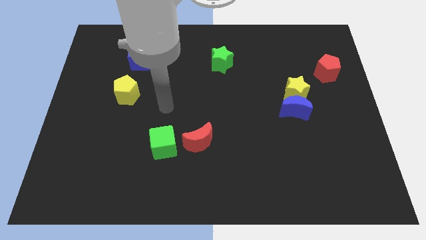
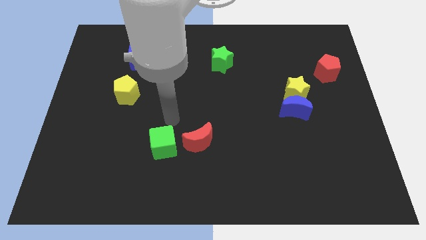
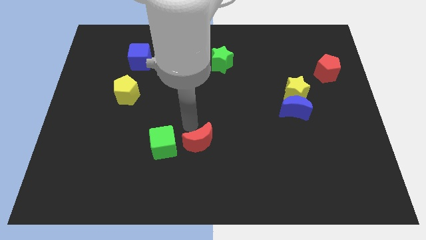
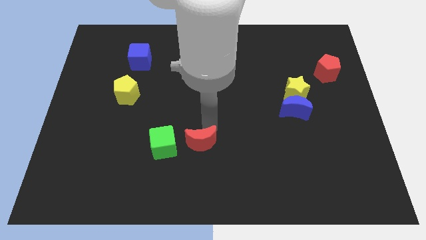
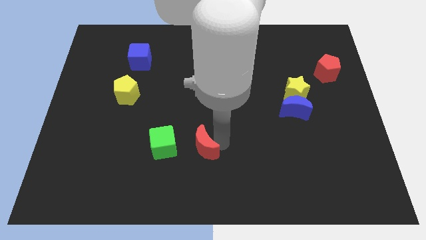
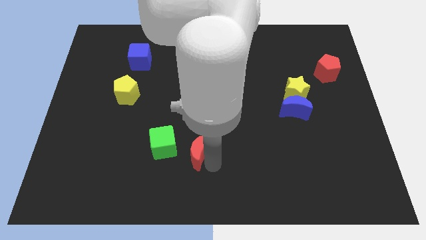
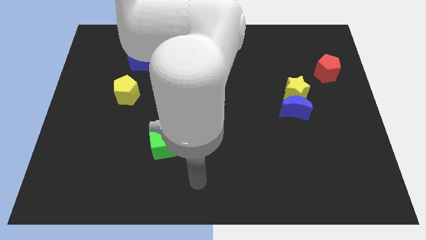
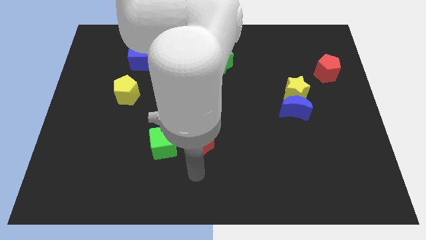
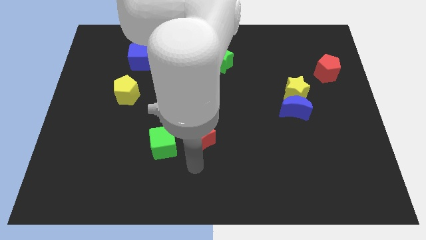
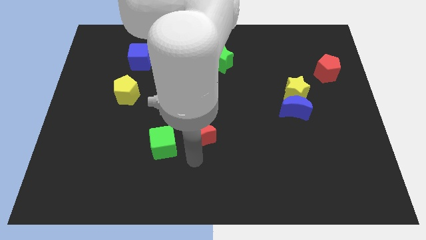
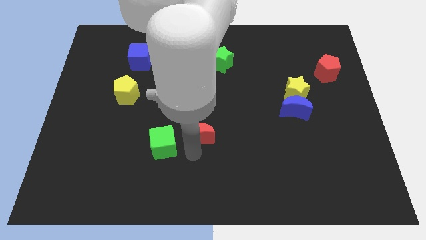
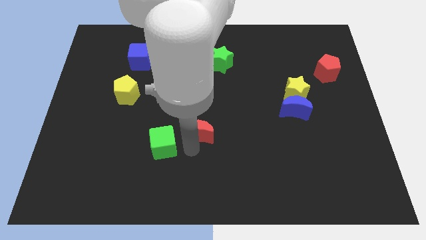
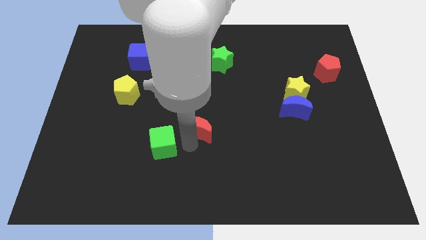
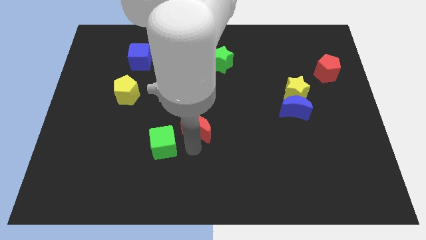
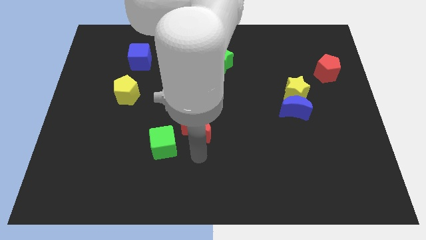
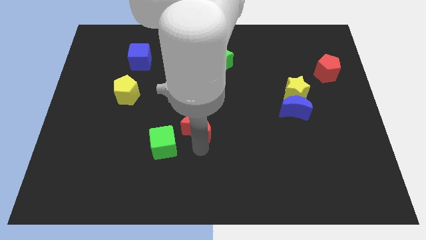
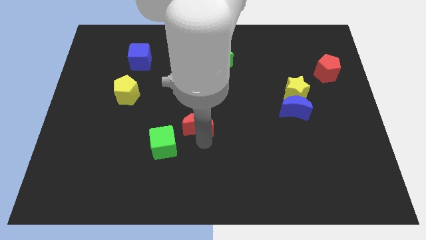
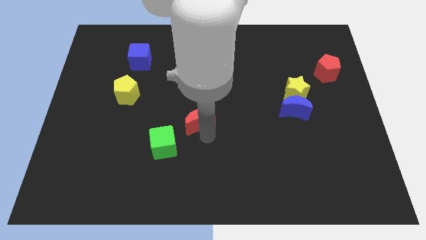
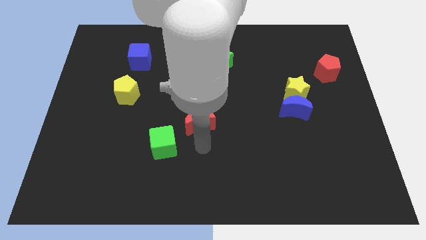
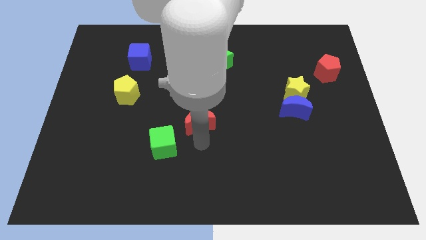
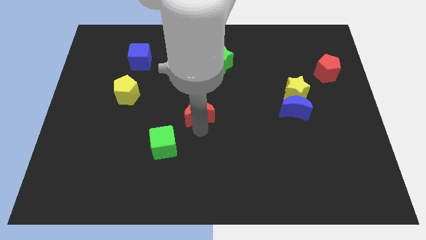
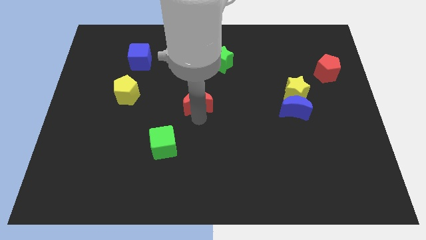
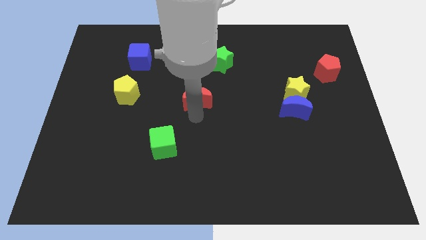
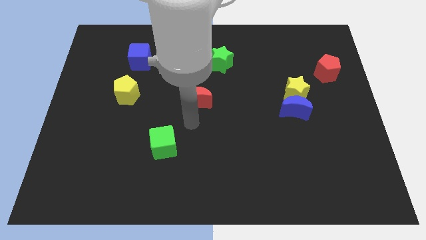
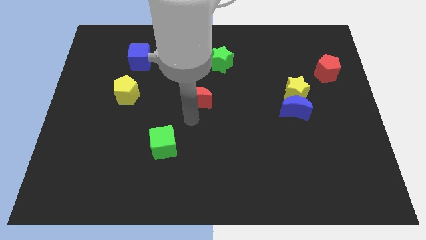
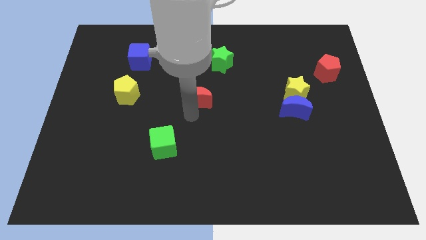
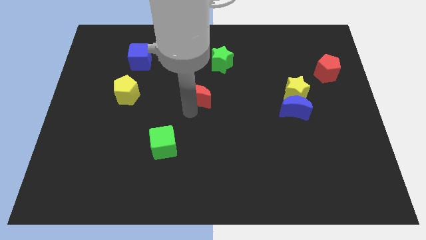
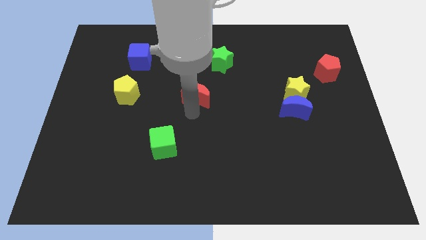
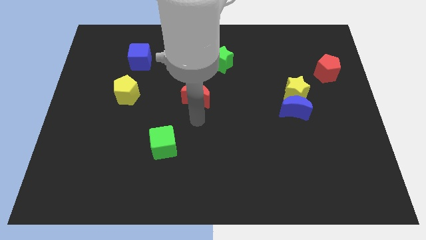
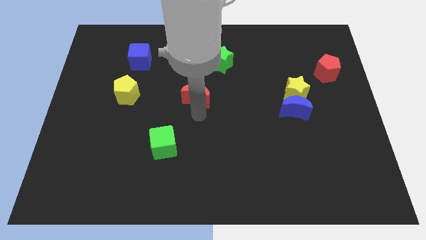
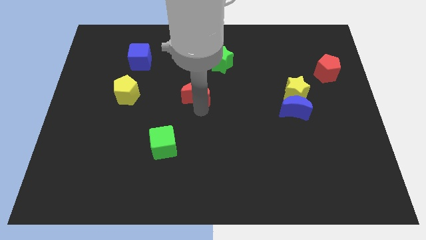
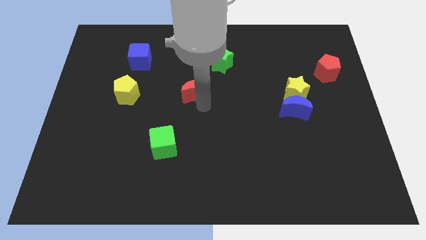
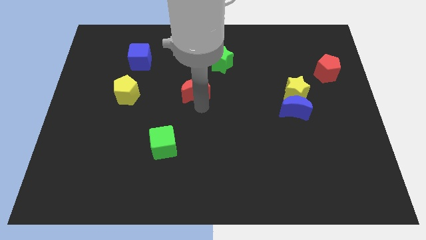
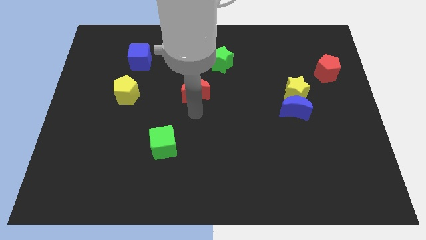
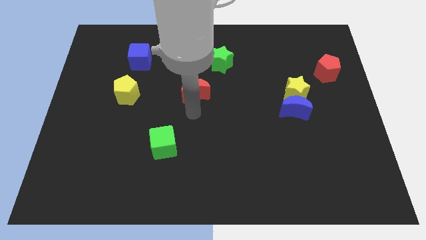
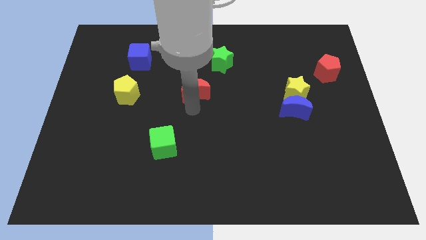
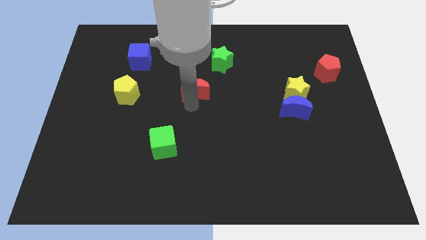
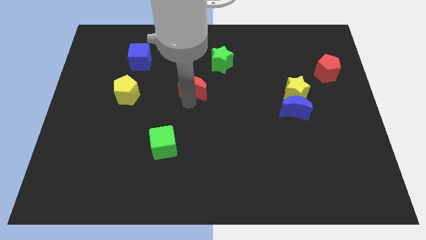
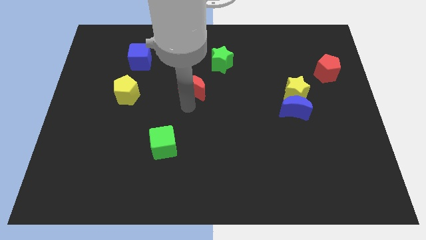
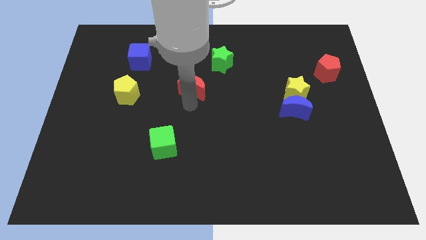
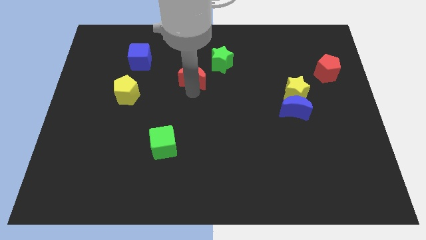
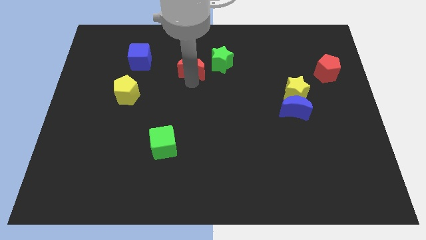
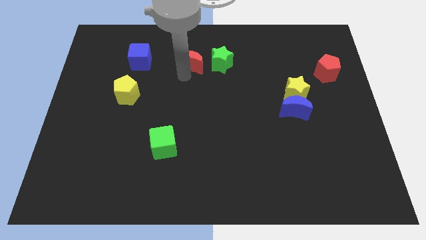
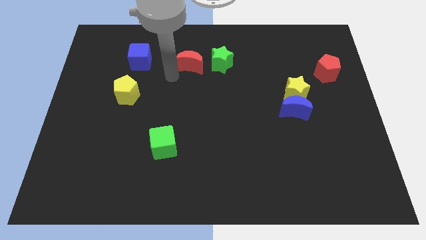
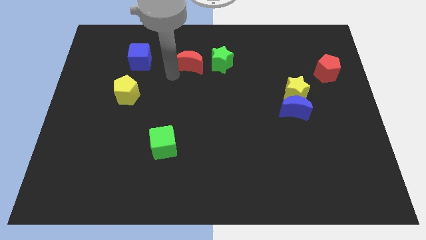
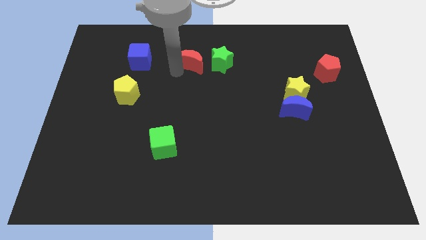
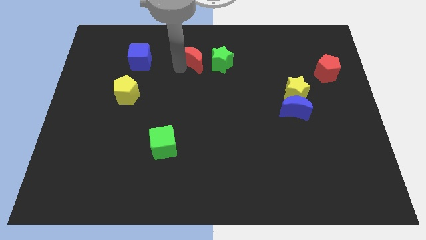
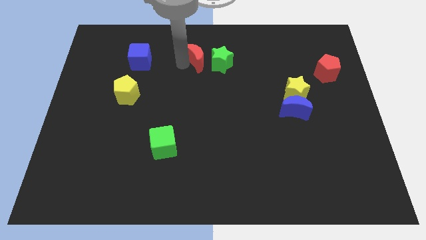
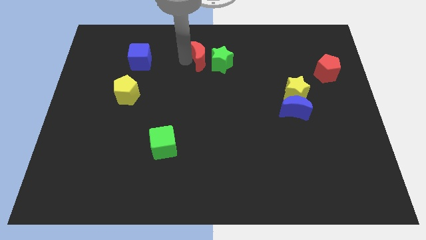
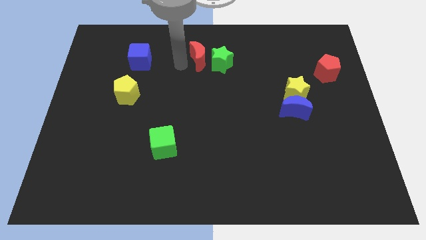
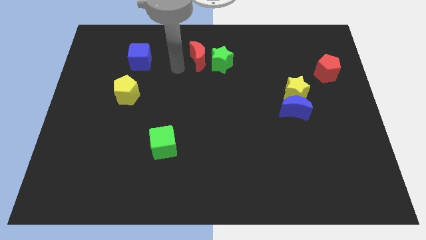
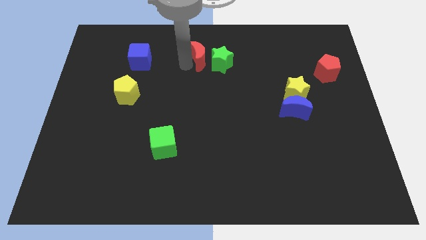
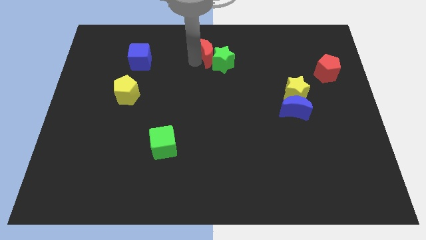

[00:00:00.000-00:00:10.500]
move the red moon to the towards your base

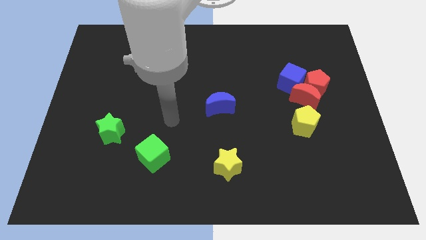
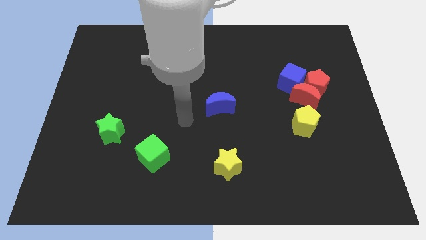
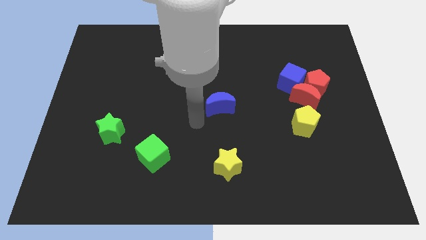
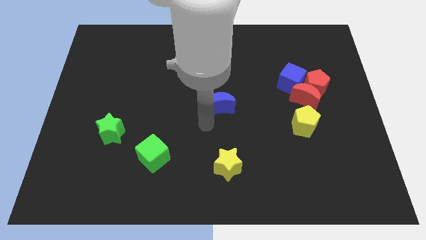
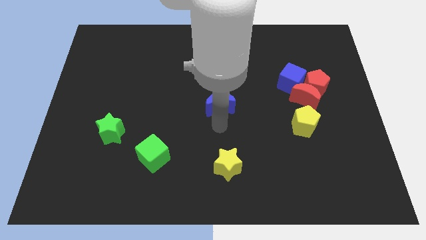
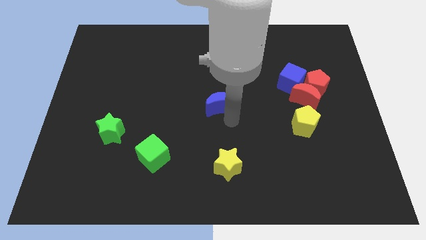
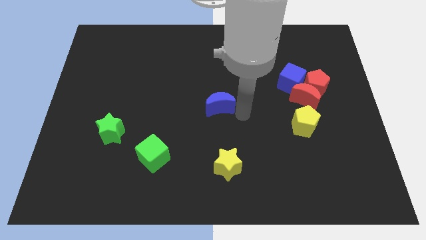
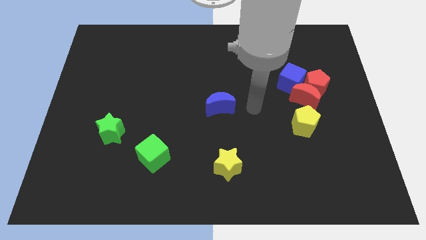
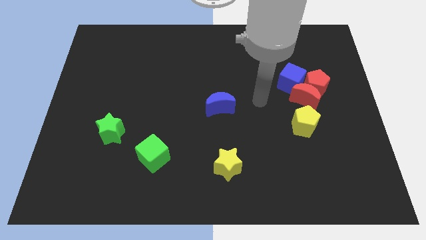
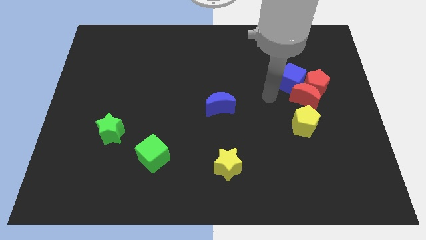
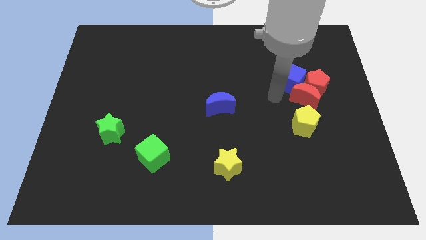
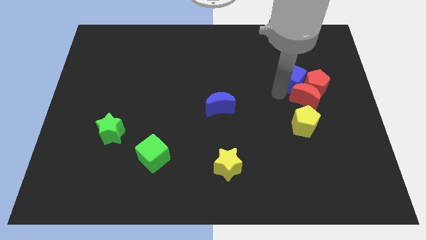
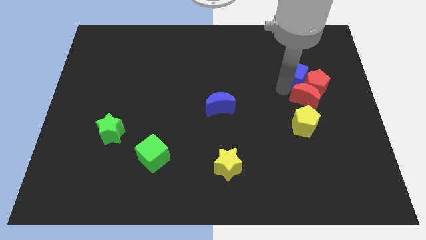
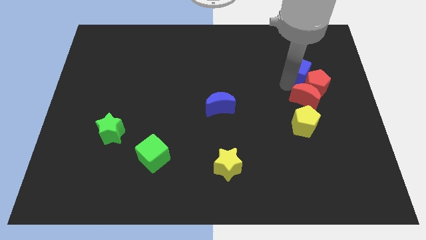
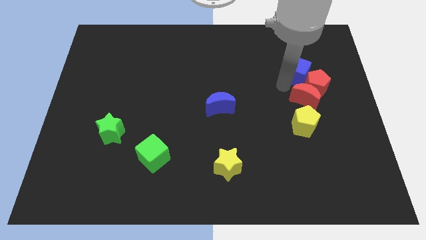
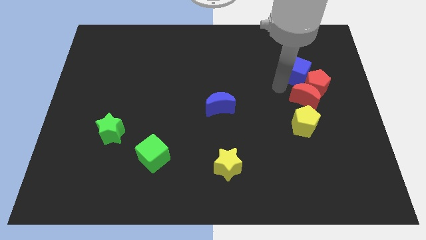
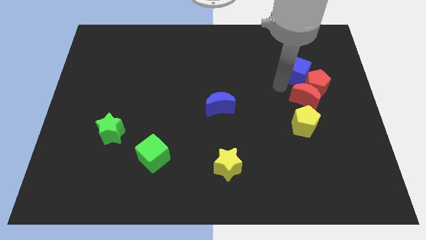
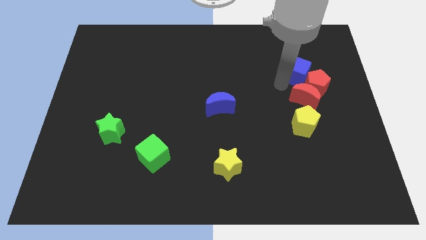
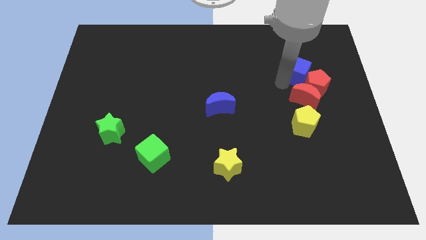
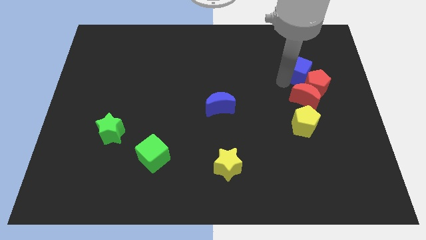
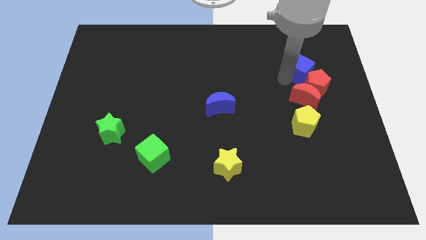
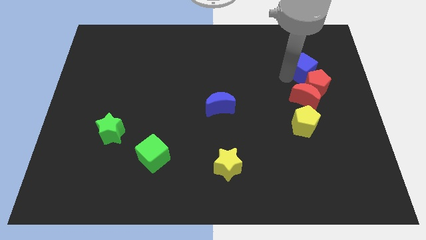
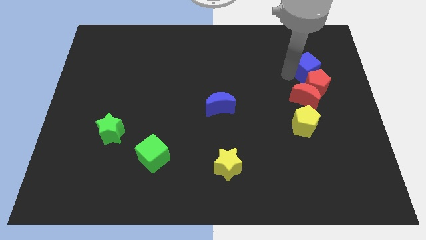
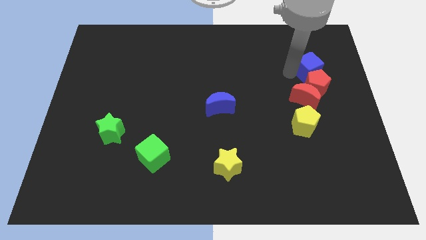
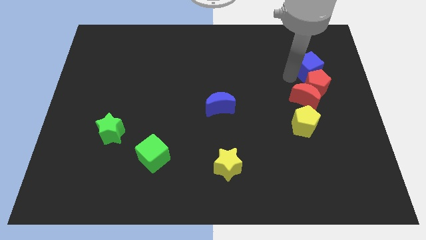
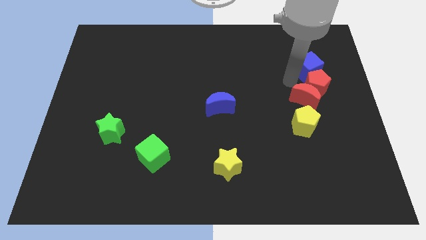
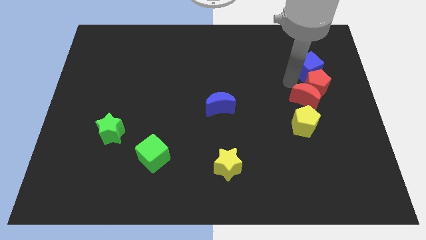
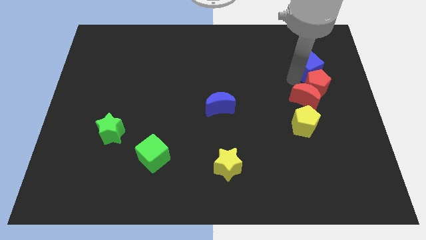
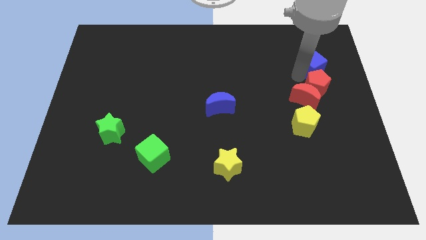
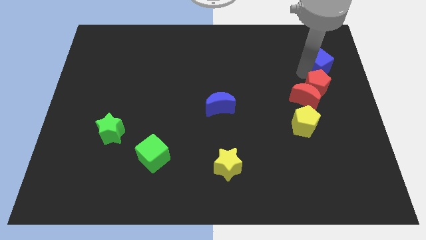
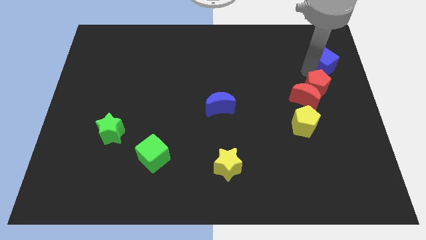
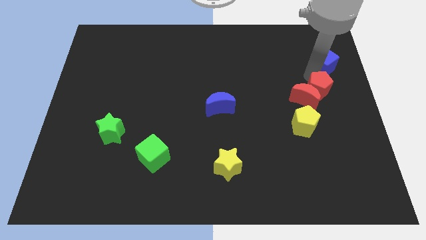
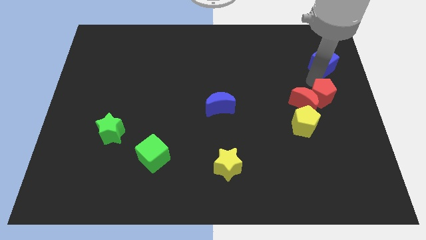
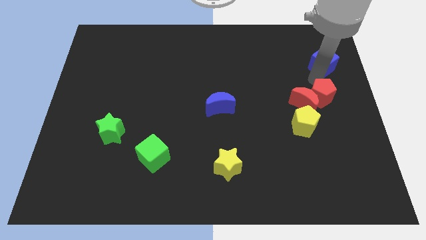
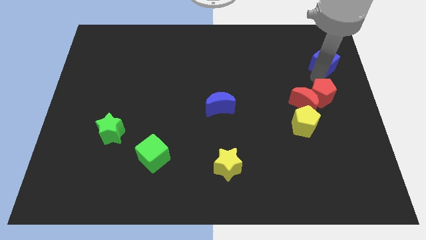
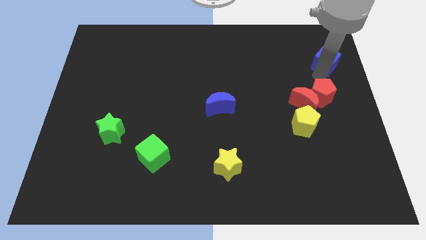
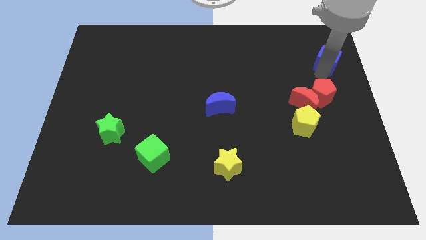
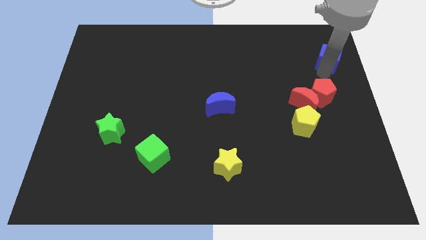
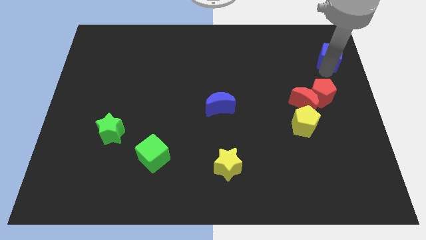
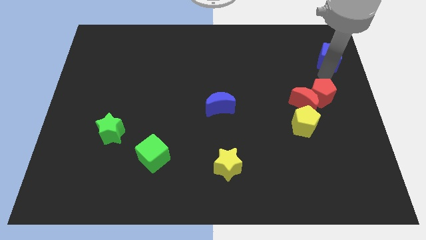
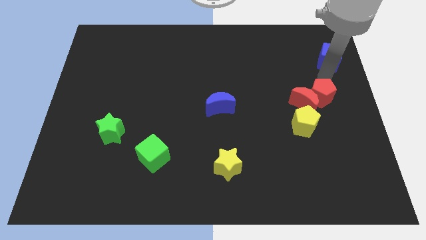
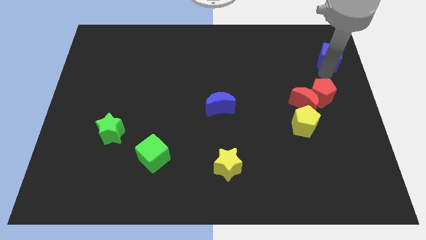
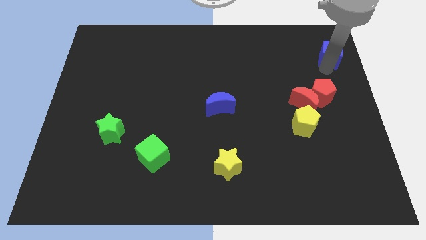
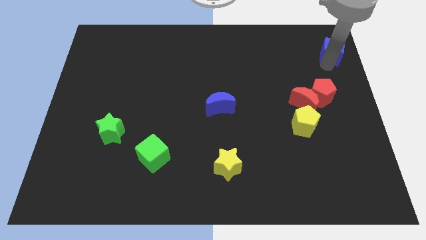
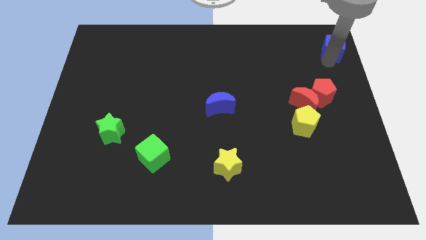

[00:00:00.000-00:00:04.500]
put the blue cube to the top right
